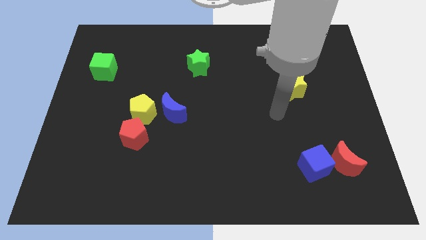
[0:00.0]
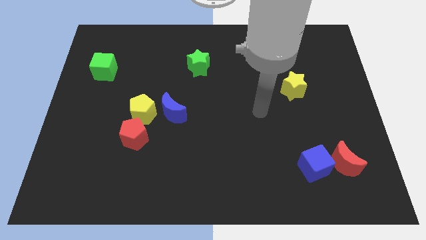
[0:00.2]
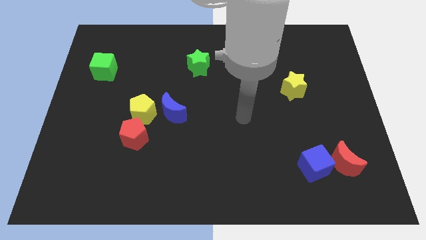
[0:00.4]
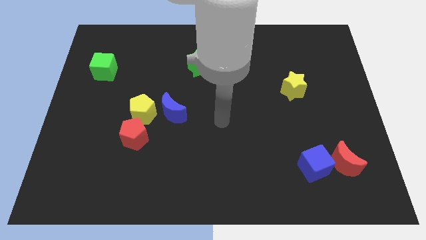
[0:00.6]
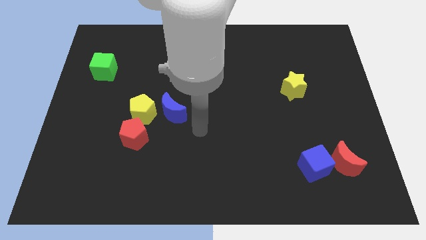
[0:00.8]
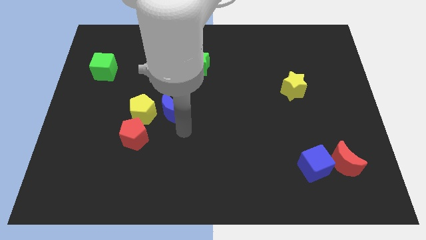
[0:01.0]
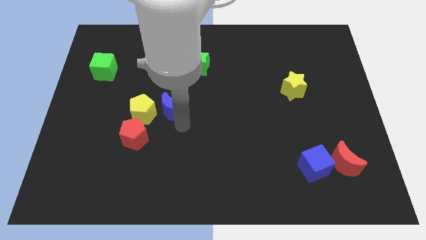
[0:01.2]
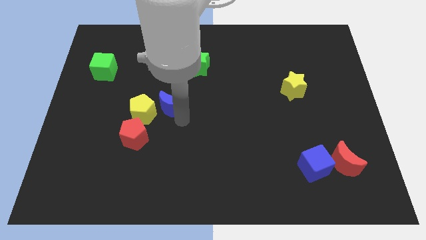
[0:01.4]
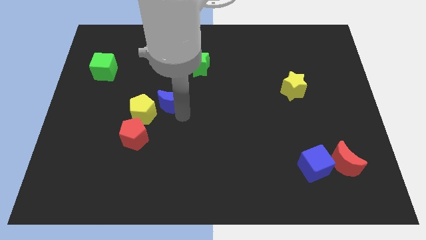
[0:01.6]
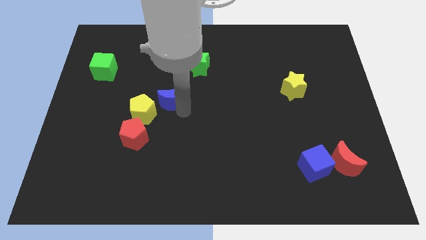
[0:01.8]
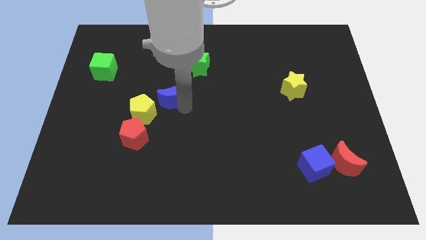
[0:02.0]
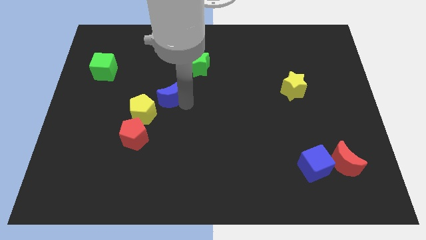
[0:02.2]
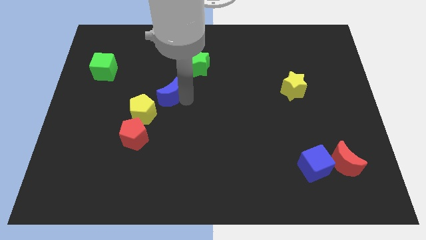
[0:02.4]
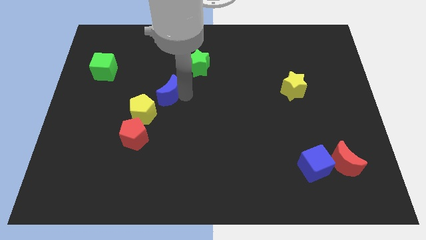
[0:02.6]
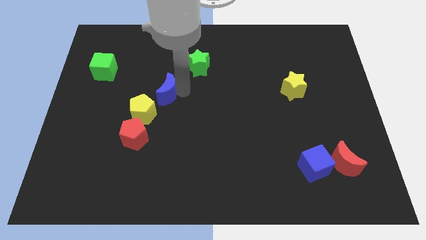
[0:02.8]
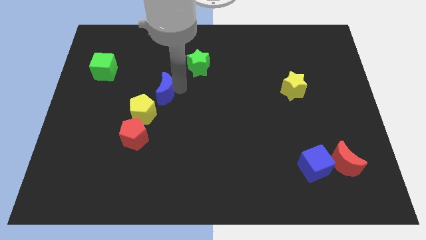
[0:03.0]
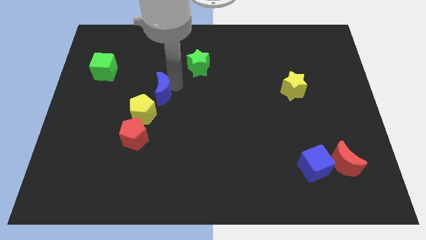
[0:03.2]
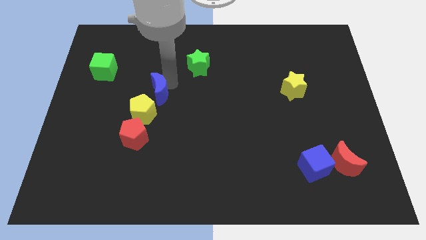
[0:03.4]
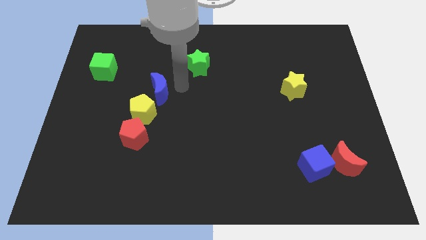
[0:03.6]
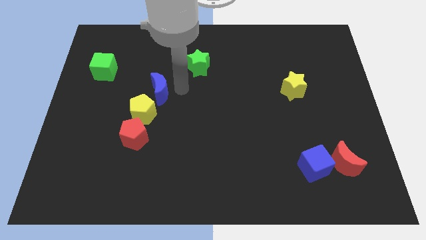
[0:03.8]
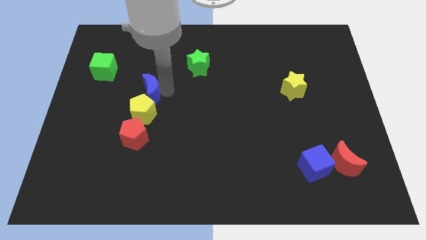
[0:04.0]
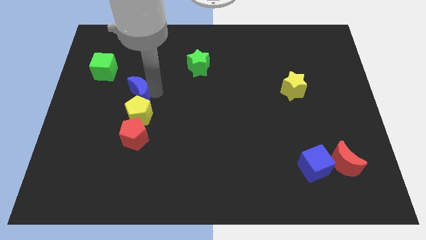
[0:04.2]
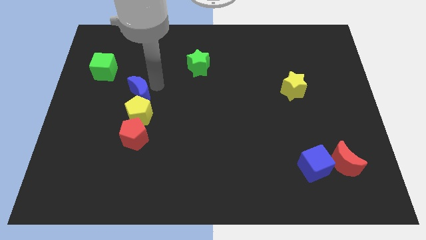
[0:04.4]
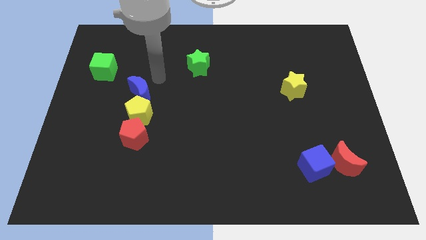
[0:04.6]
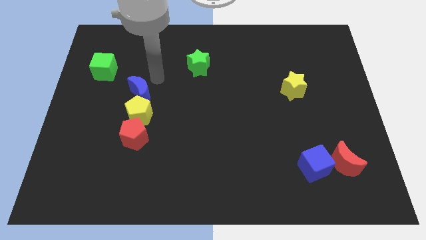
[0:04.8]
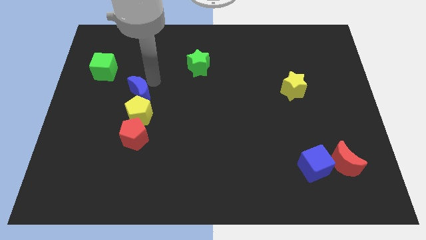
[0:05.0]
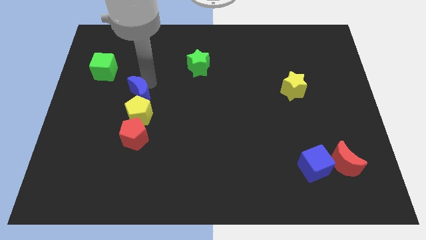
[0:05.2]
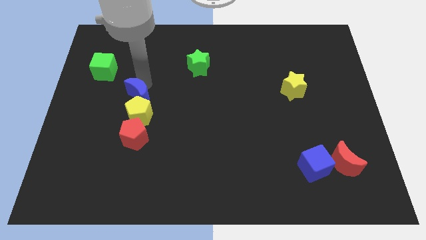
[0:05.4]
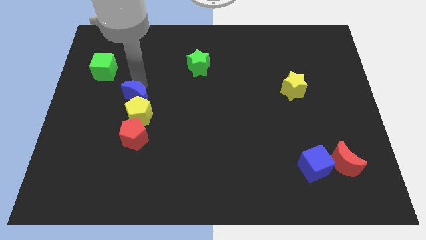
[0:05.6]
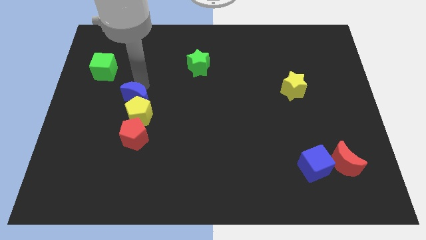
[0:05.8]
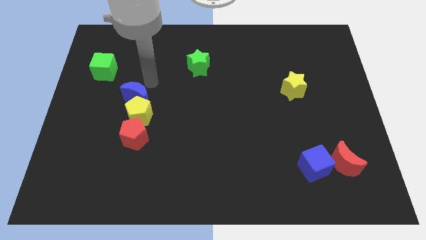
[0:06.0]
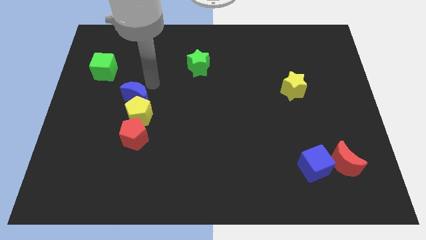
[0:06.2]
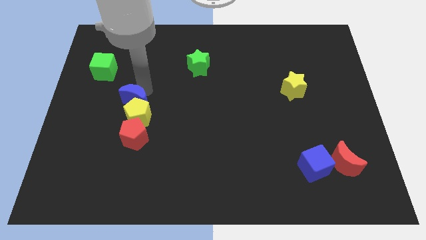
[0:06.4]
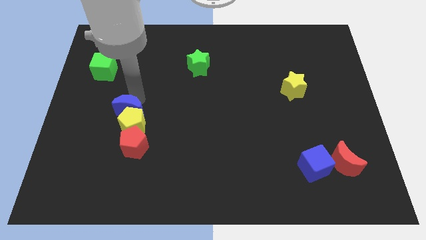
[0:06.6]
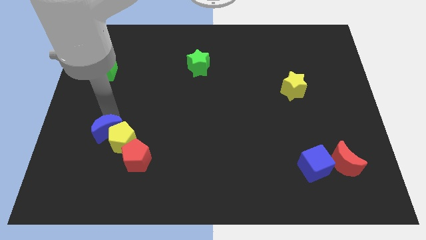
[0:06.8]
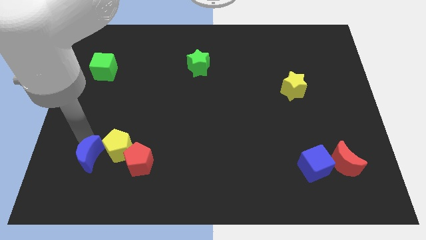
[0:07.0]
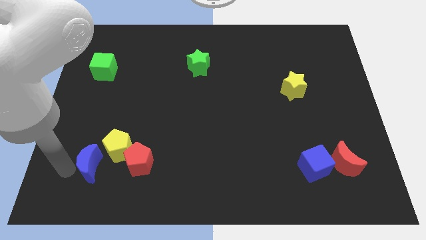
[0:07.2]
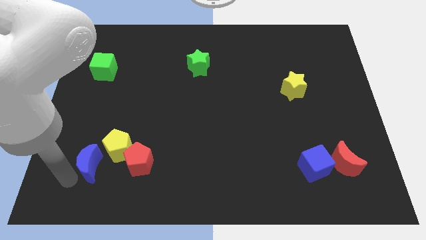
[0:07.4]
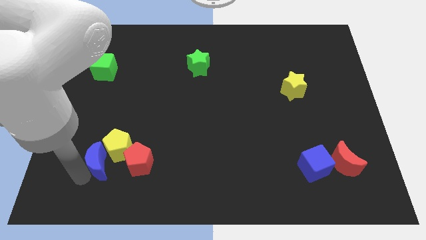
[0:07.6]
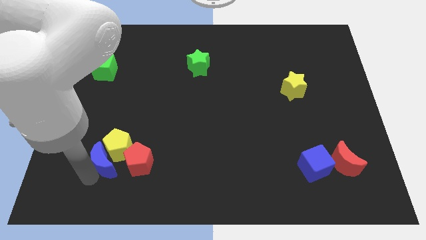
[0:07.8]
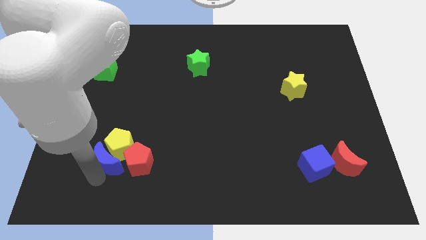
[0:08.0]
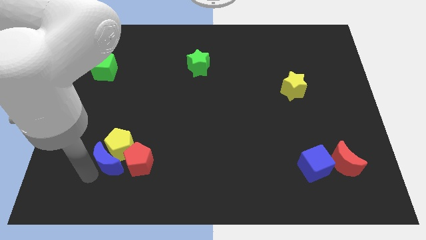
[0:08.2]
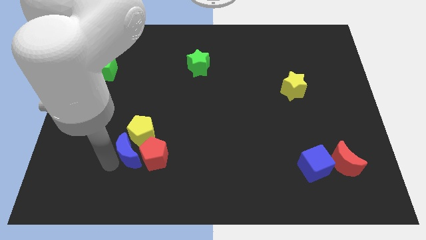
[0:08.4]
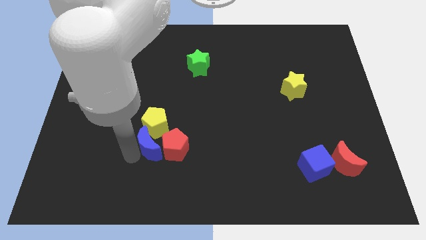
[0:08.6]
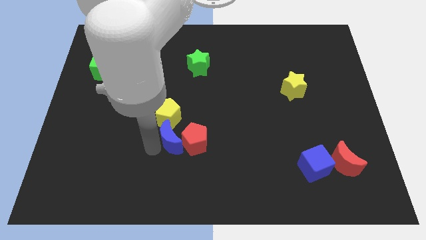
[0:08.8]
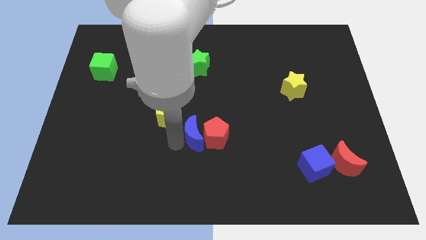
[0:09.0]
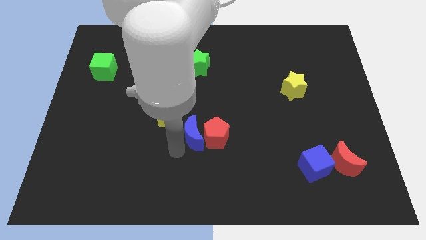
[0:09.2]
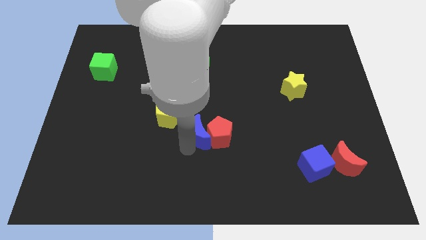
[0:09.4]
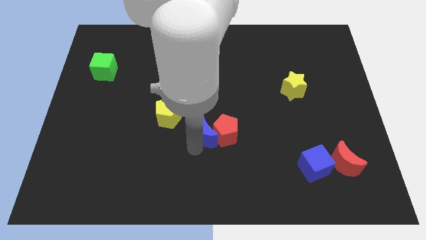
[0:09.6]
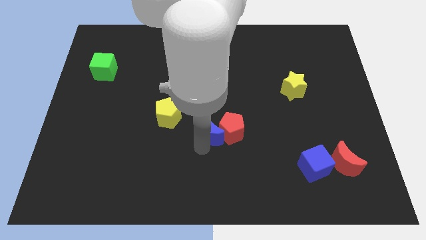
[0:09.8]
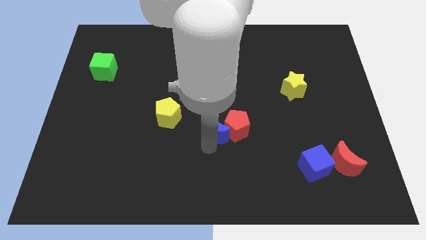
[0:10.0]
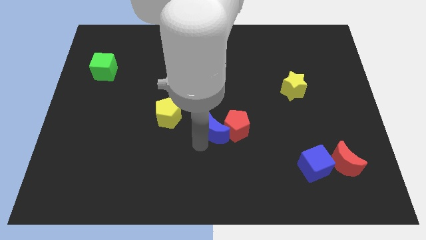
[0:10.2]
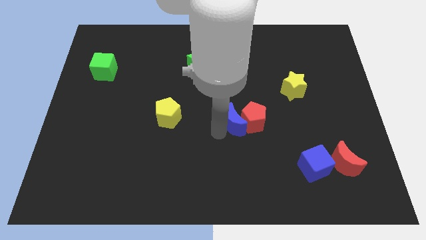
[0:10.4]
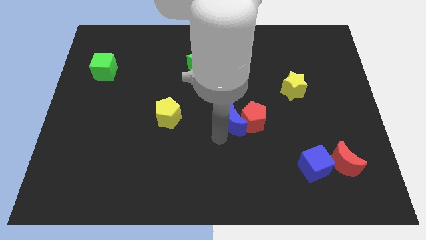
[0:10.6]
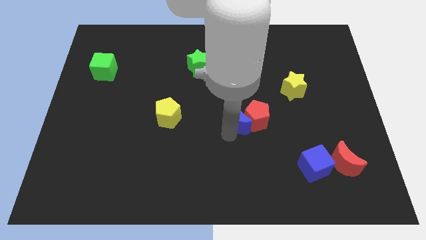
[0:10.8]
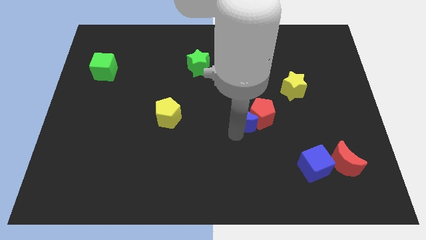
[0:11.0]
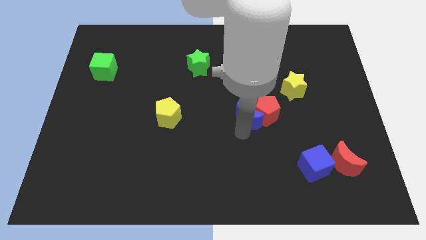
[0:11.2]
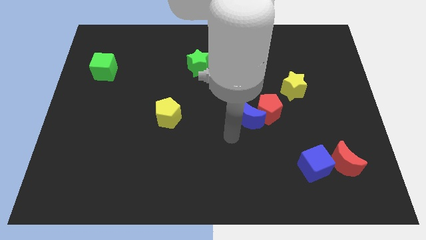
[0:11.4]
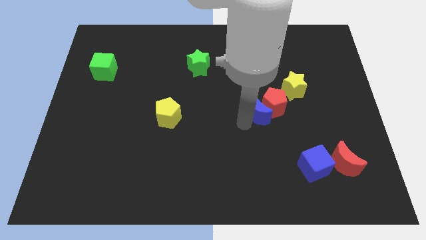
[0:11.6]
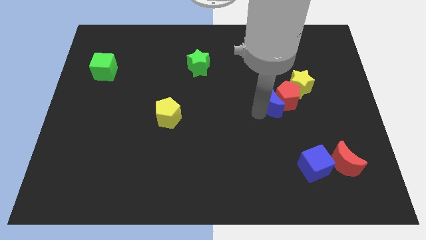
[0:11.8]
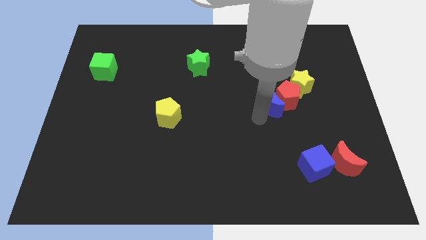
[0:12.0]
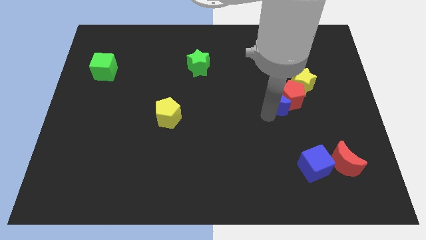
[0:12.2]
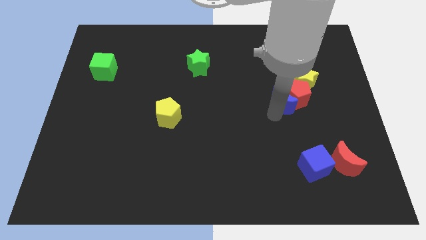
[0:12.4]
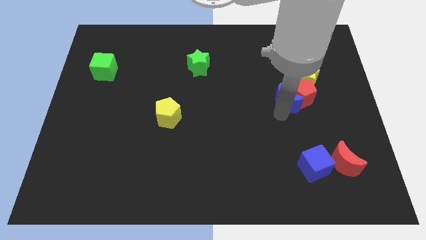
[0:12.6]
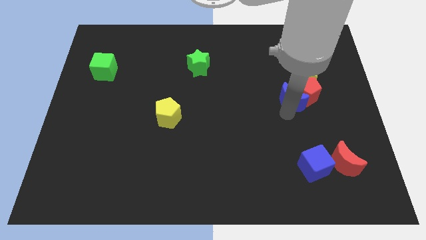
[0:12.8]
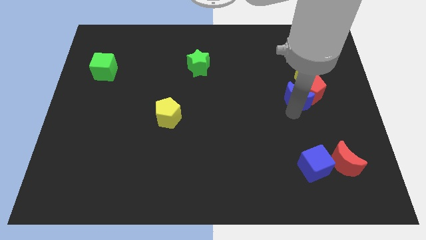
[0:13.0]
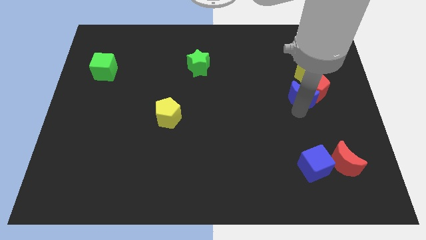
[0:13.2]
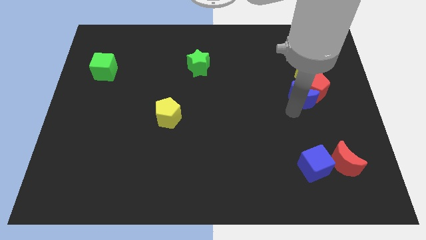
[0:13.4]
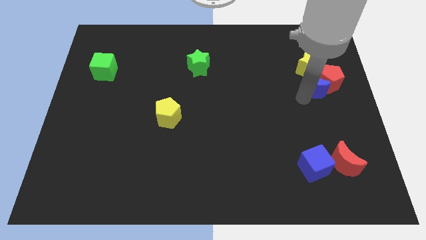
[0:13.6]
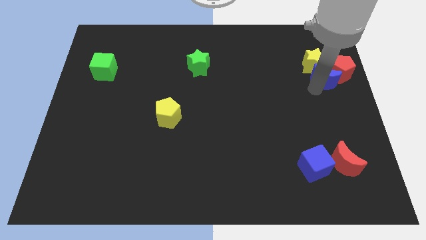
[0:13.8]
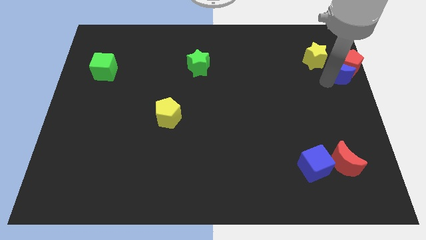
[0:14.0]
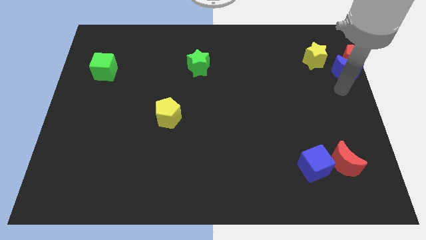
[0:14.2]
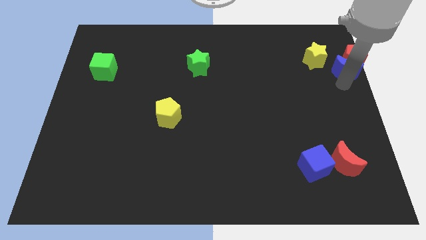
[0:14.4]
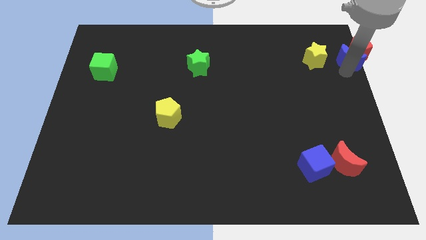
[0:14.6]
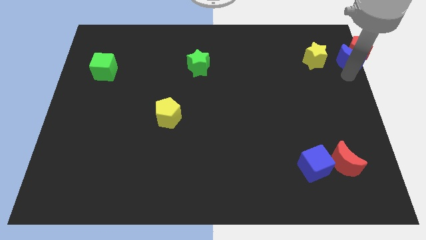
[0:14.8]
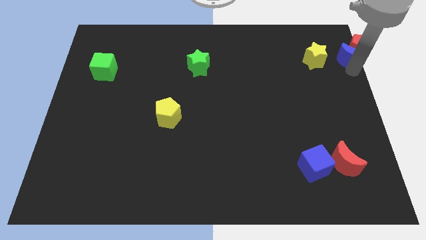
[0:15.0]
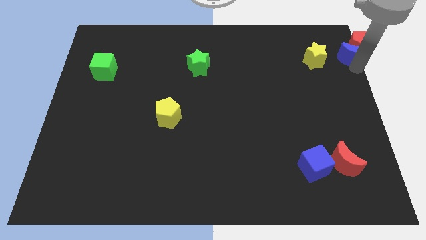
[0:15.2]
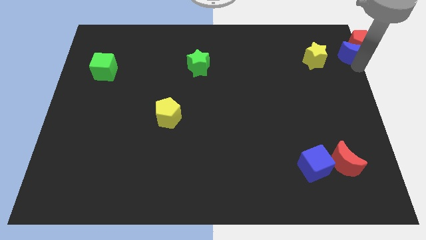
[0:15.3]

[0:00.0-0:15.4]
move the blue moon to the top right
